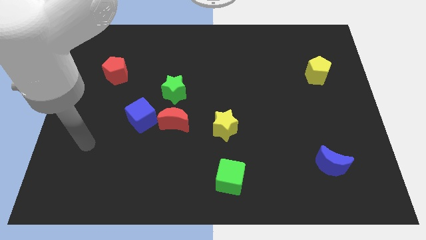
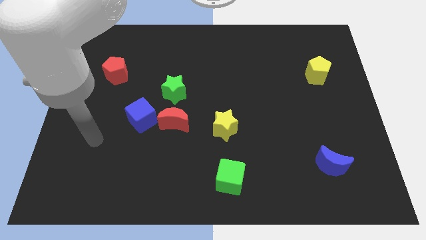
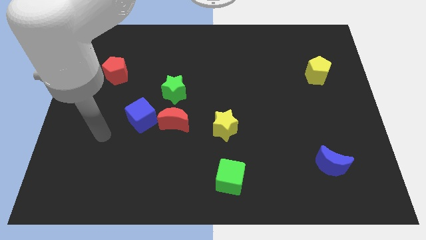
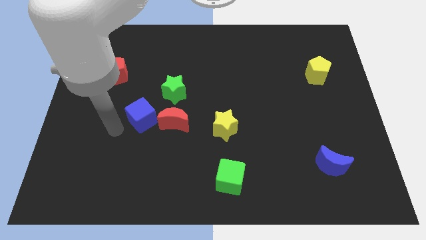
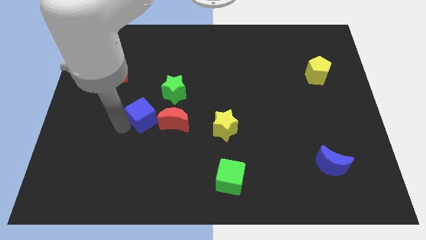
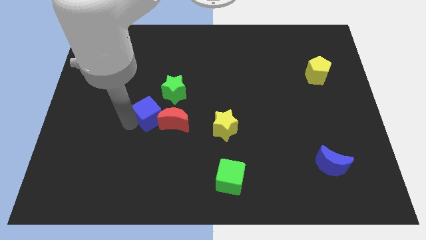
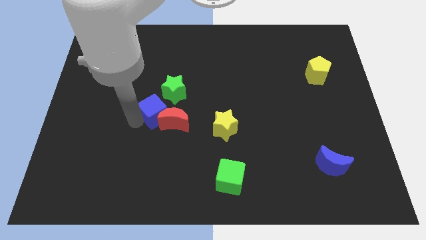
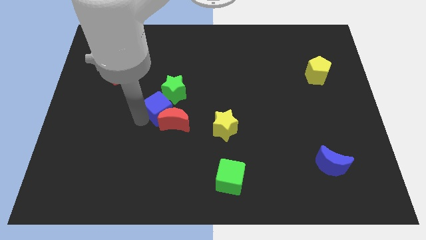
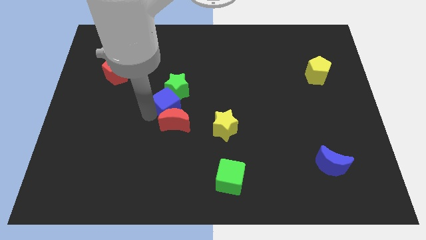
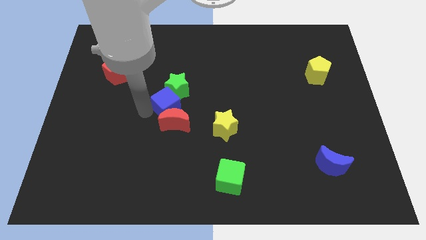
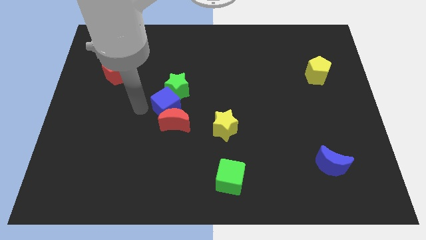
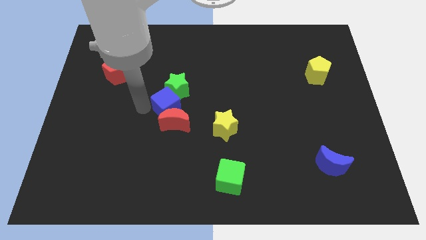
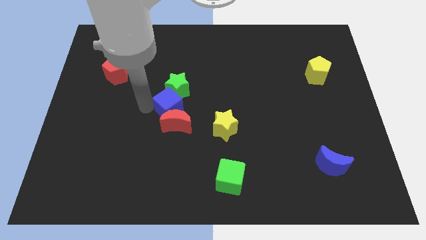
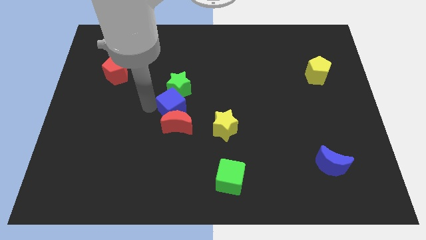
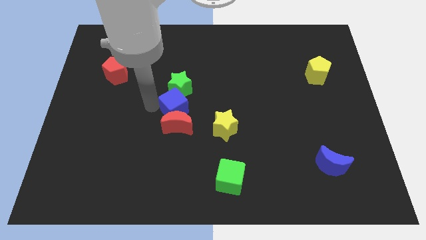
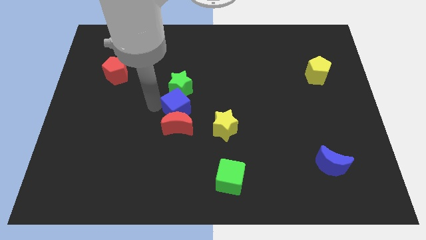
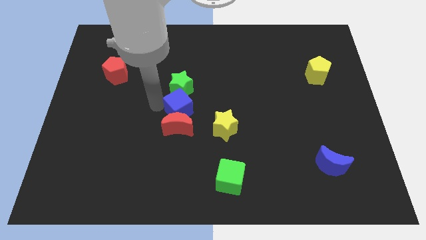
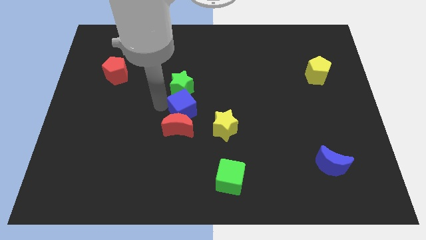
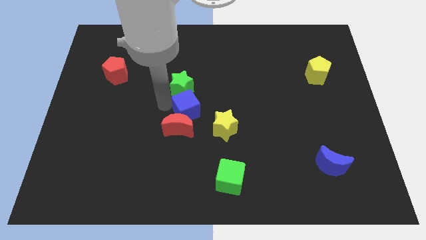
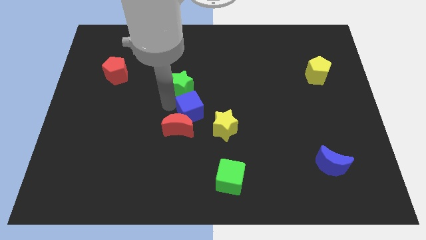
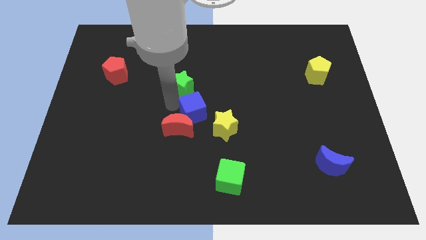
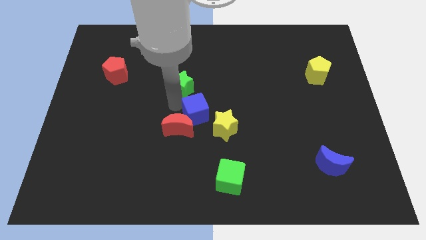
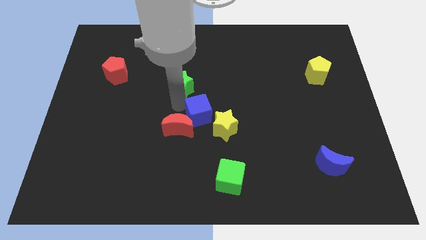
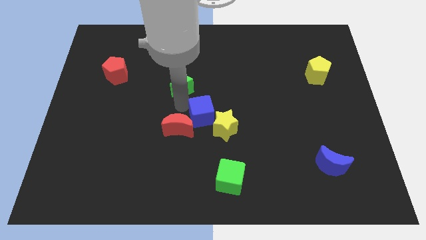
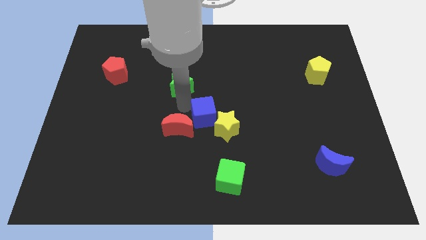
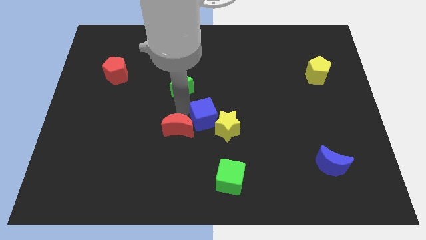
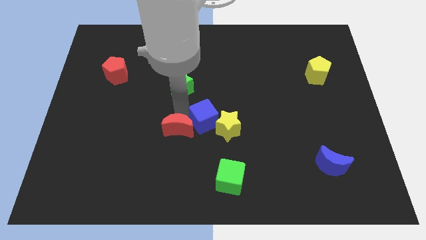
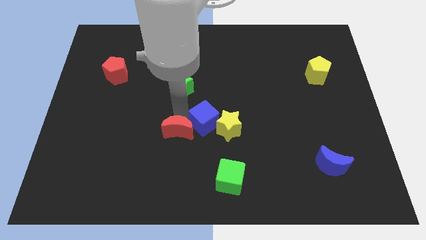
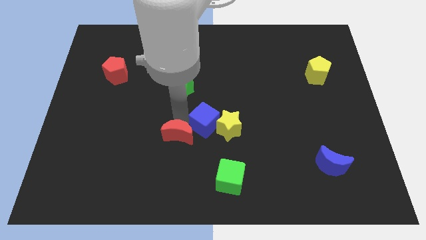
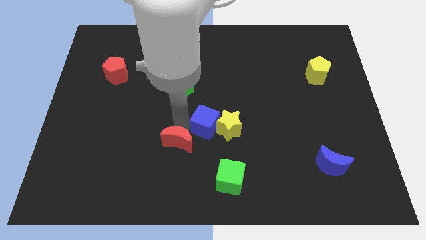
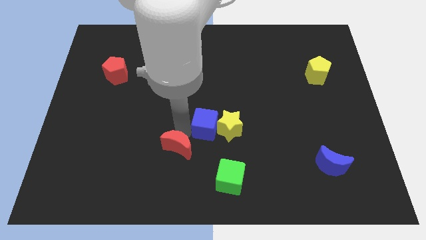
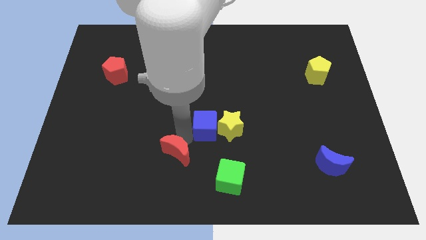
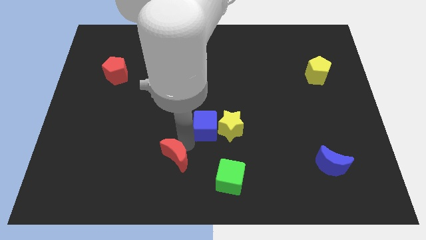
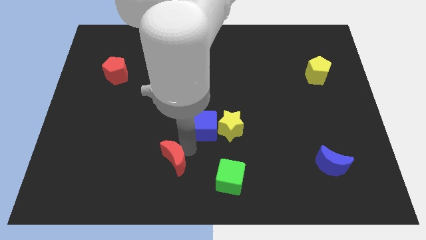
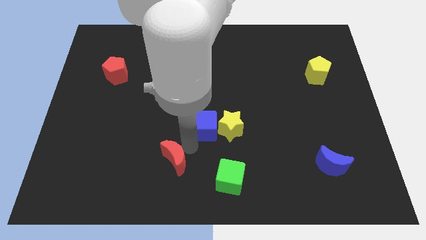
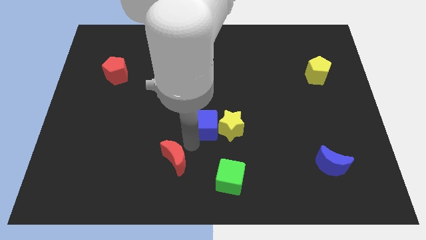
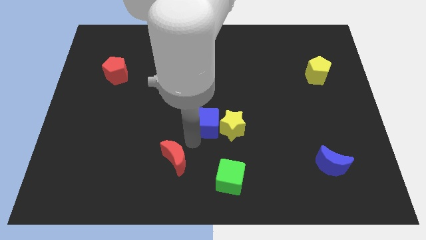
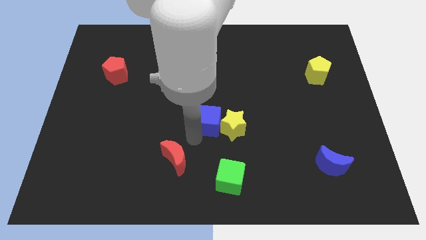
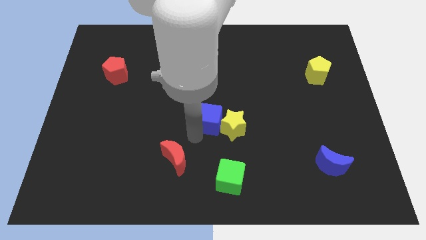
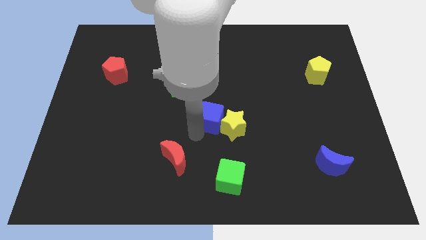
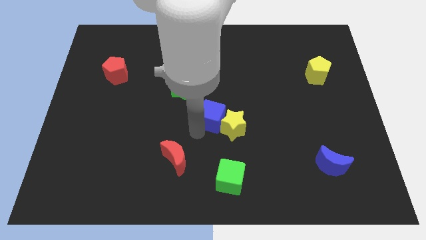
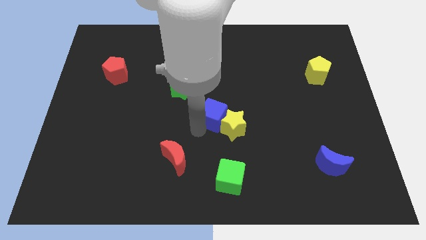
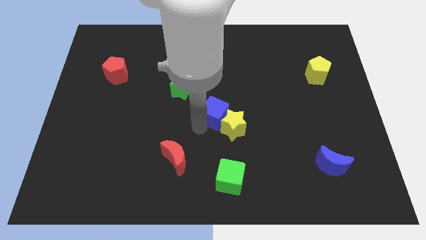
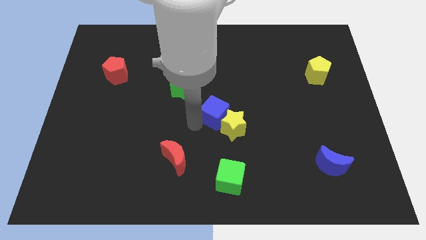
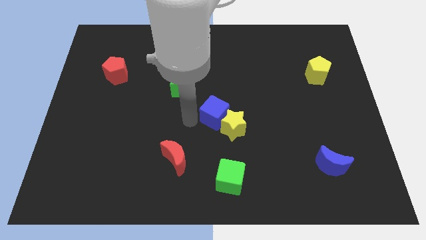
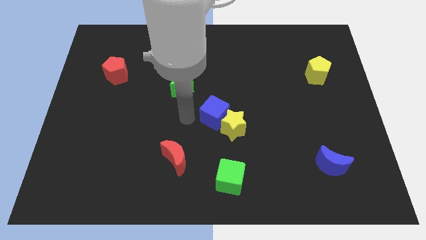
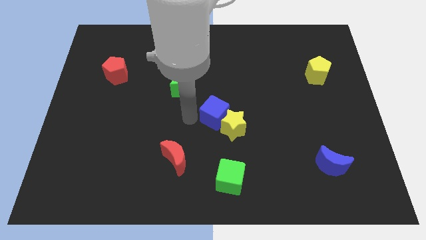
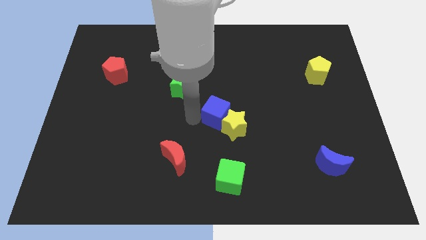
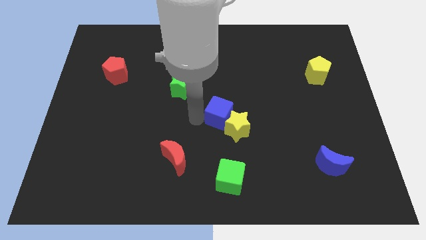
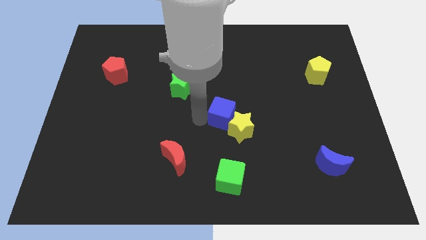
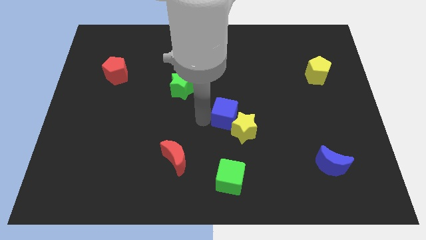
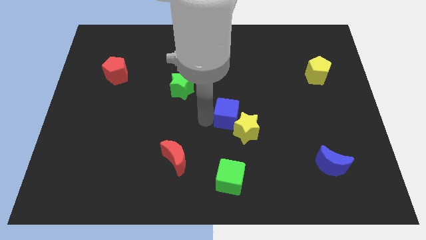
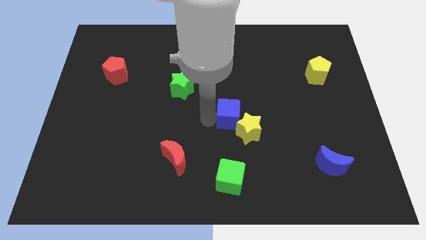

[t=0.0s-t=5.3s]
slide the blue cube right

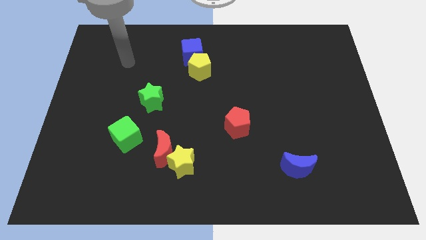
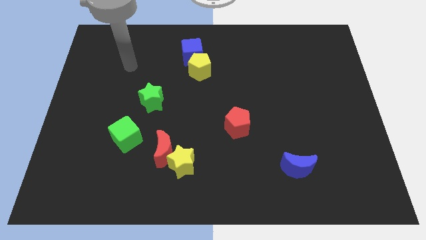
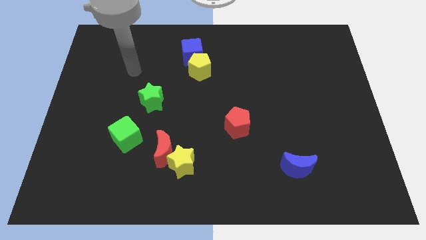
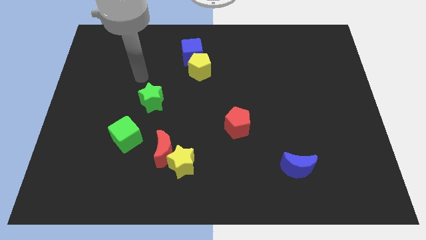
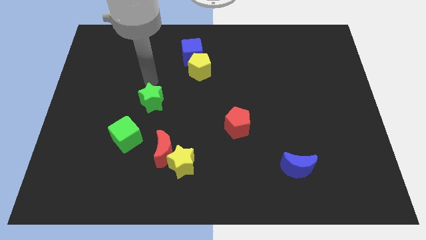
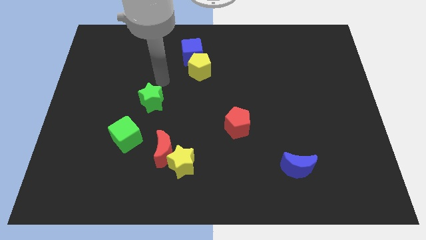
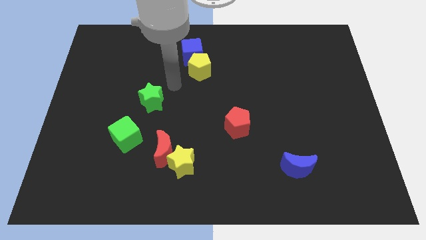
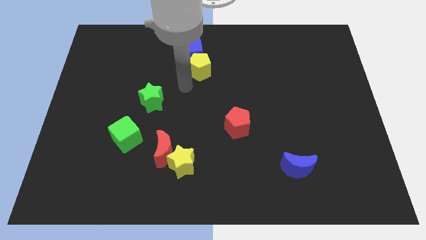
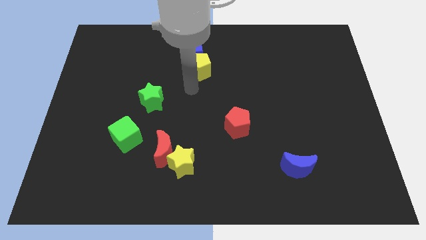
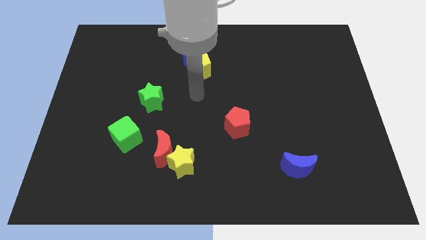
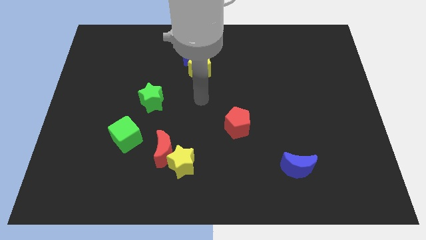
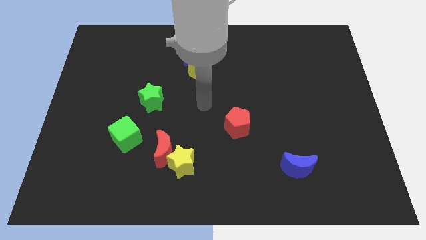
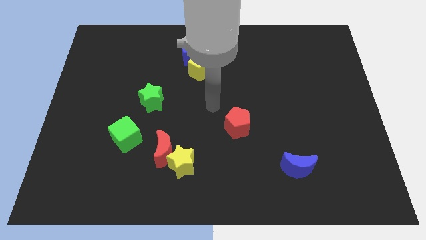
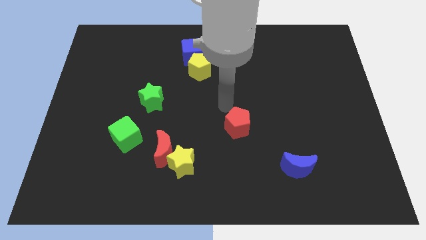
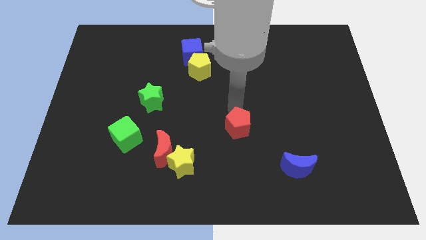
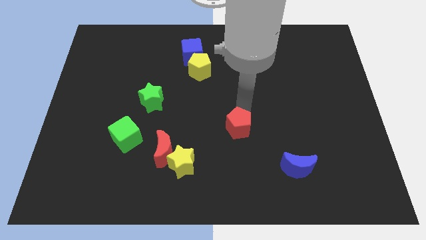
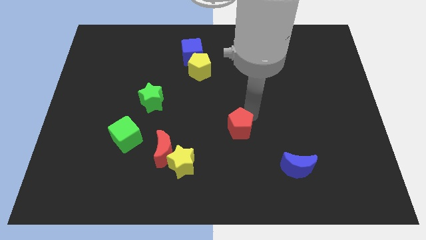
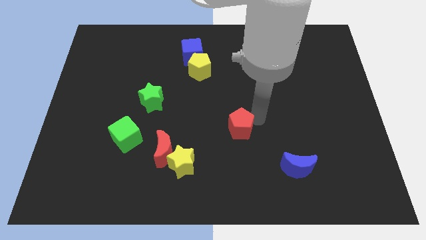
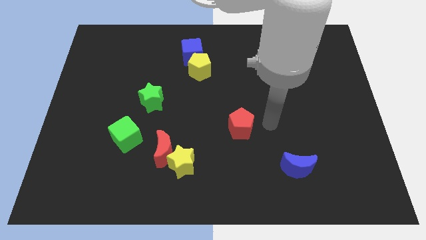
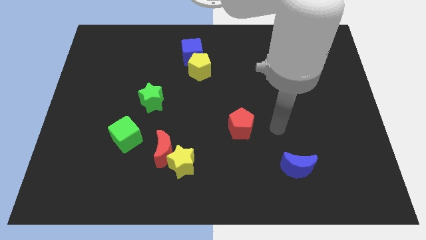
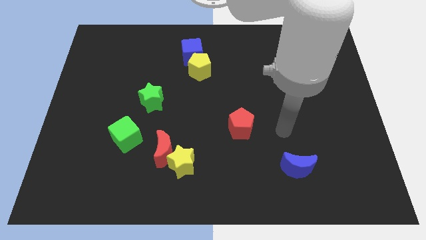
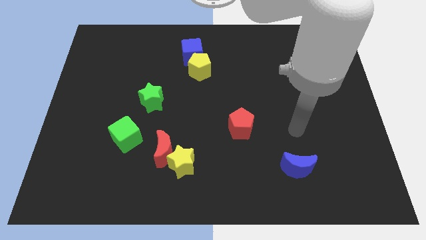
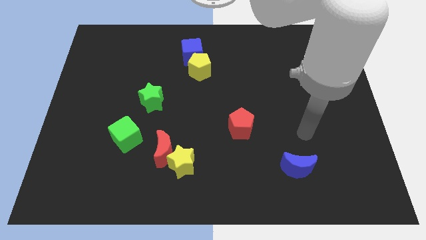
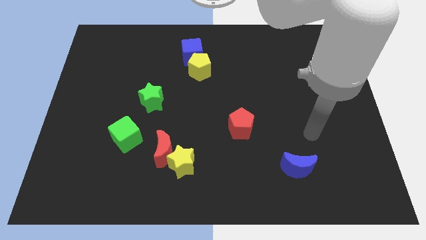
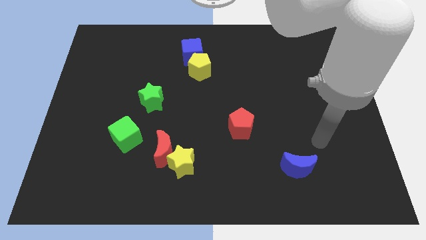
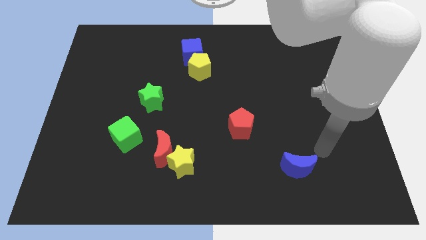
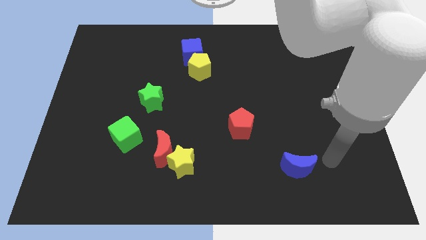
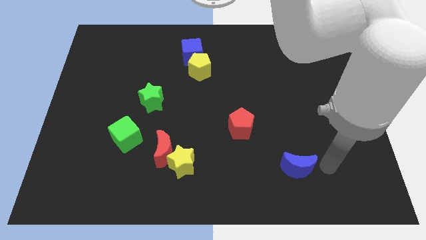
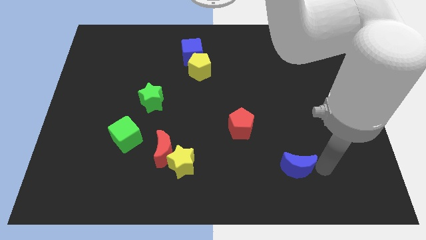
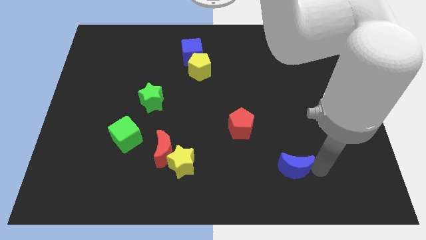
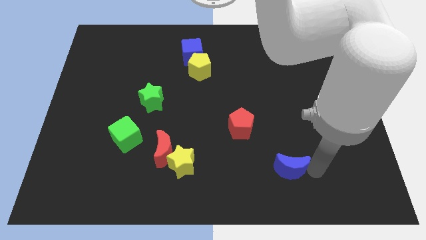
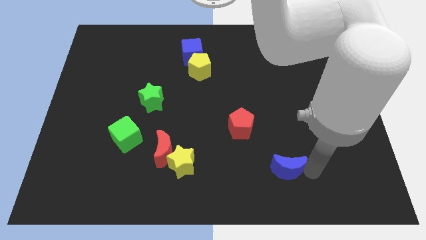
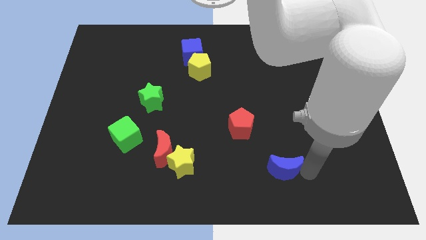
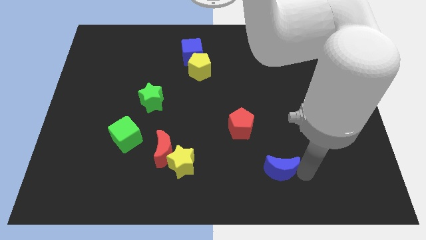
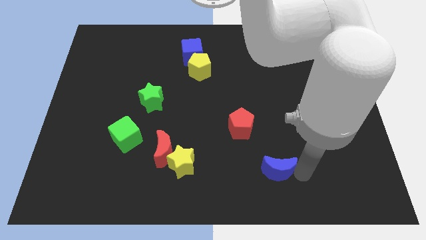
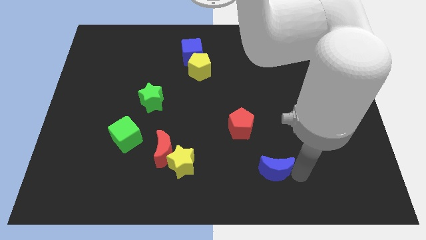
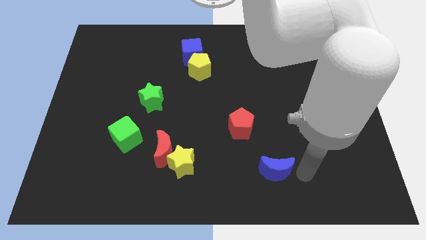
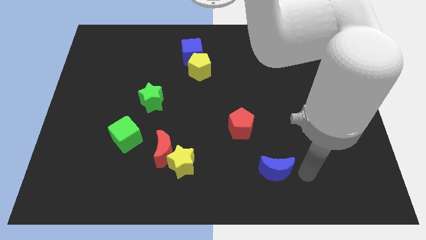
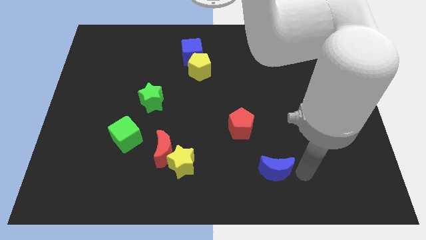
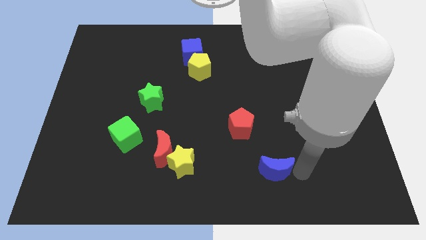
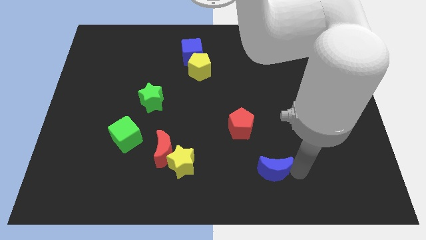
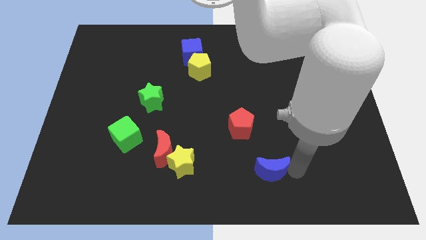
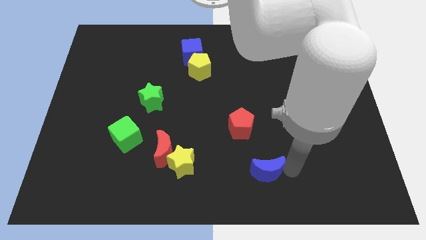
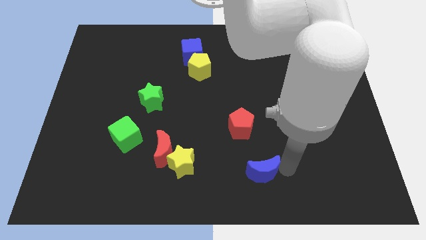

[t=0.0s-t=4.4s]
slide the blue moon to the left slightly
